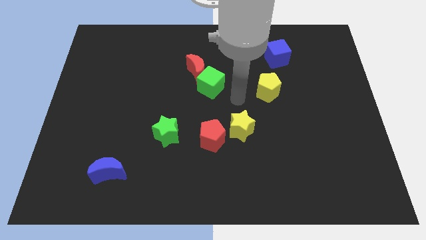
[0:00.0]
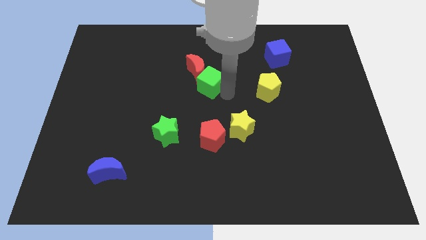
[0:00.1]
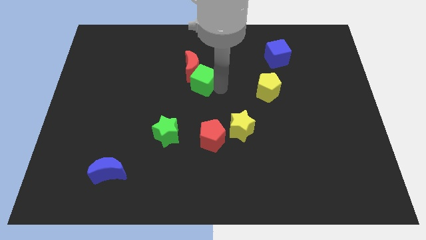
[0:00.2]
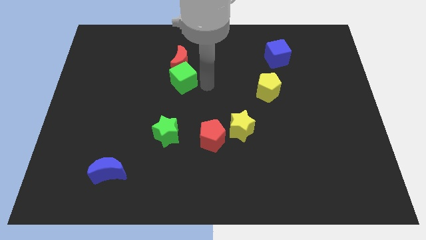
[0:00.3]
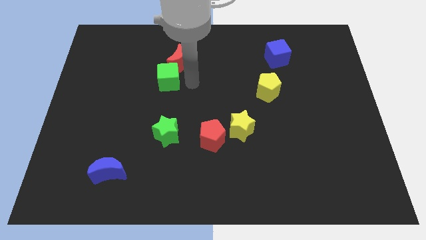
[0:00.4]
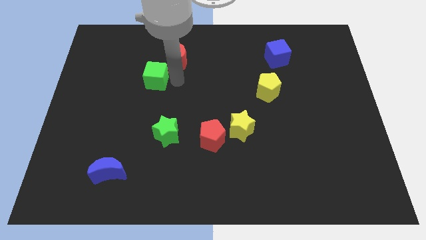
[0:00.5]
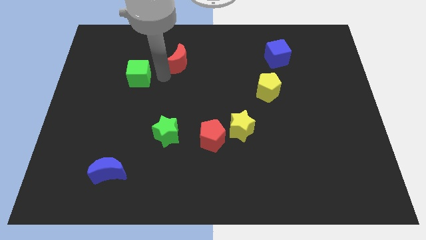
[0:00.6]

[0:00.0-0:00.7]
move the red moon away from the green cube

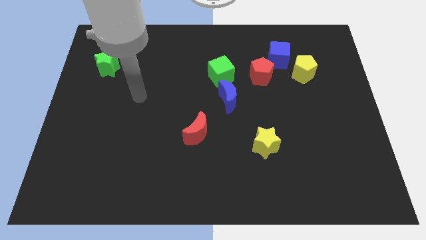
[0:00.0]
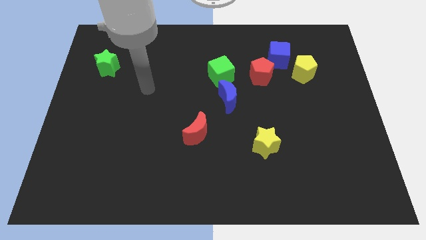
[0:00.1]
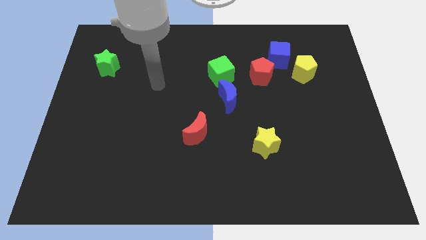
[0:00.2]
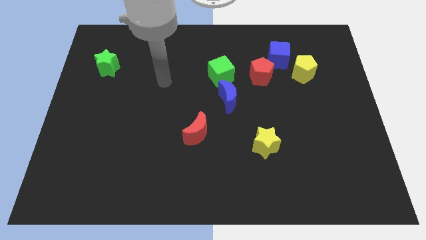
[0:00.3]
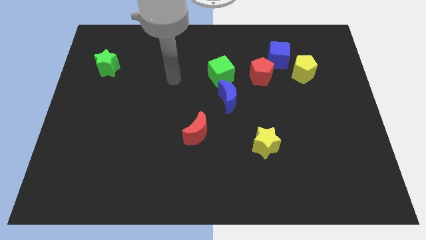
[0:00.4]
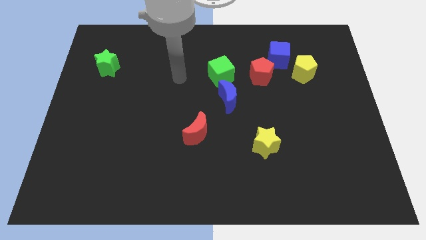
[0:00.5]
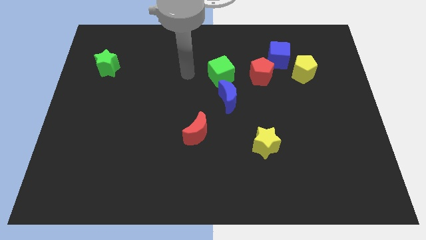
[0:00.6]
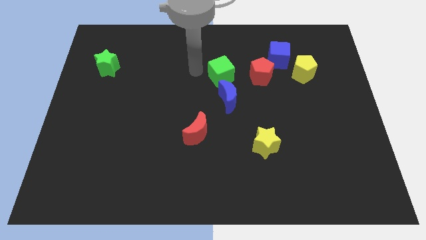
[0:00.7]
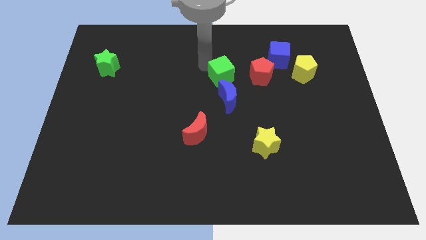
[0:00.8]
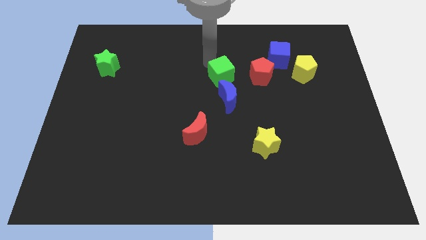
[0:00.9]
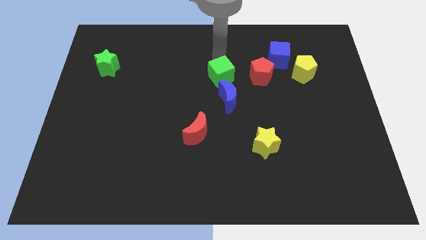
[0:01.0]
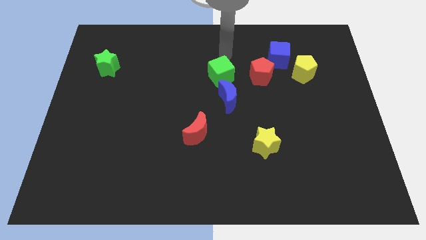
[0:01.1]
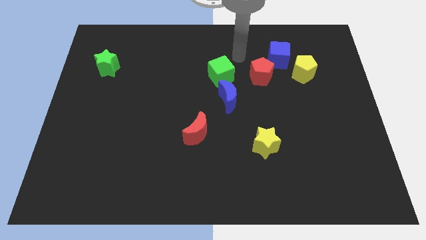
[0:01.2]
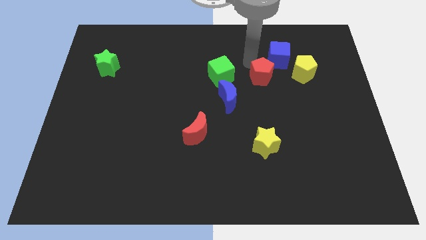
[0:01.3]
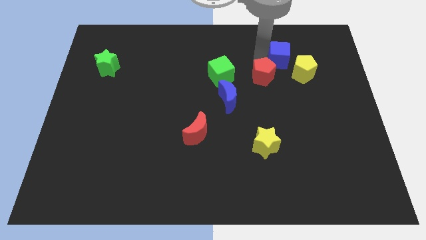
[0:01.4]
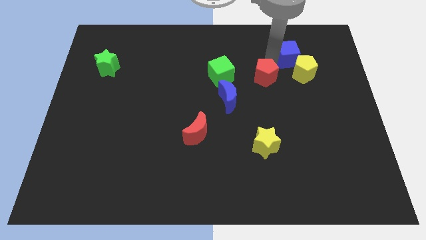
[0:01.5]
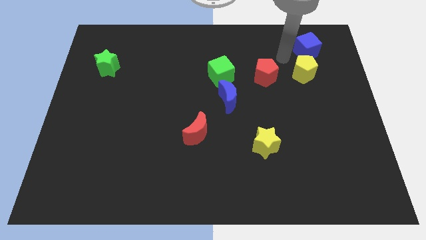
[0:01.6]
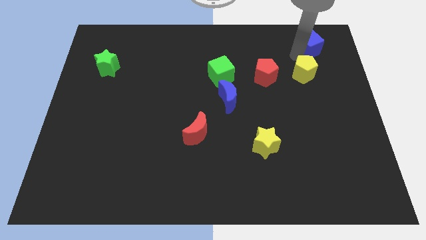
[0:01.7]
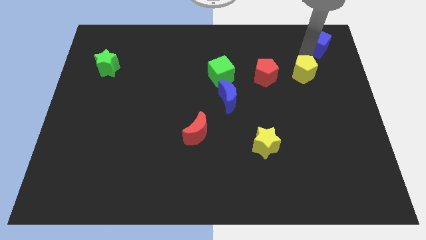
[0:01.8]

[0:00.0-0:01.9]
pull the yellow pentagon apart from the blue cube

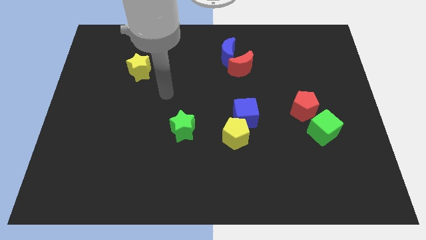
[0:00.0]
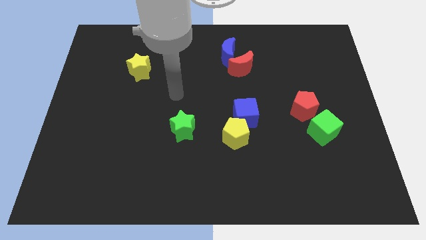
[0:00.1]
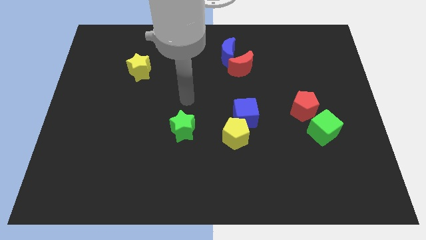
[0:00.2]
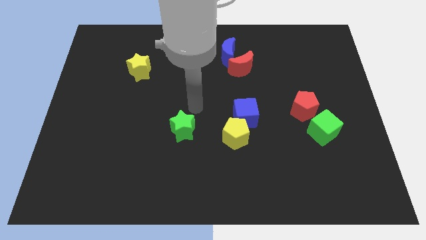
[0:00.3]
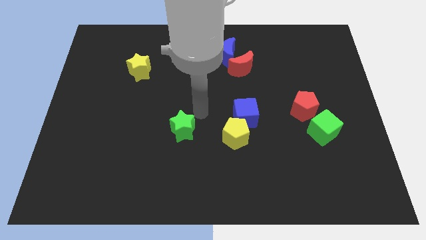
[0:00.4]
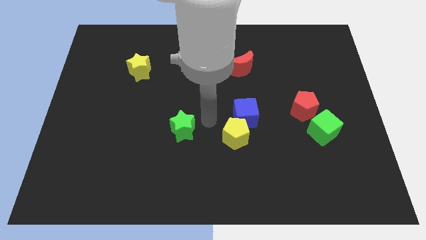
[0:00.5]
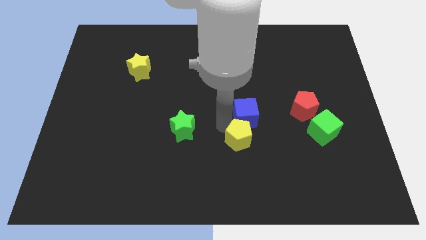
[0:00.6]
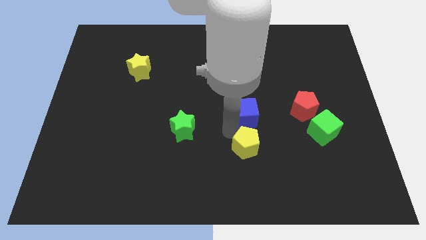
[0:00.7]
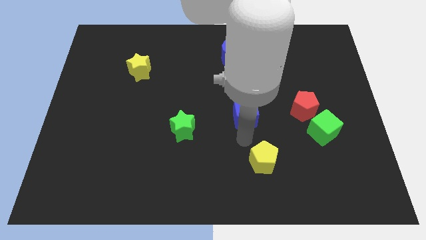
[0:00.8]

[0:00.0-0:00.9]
separate the blue cube from the yellow pentagon

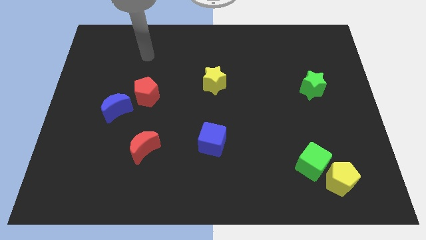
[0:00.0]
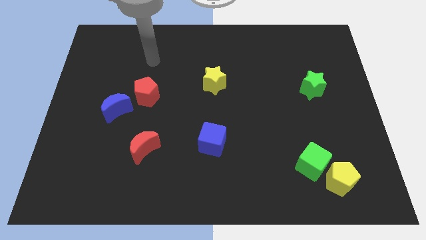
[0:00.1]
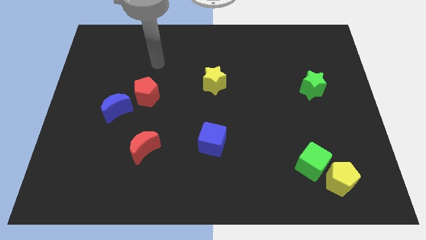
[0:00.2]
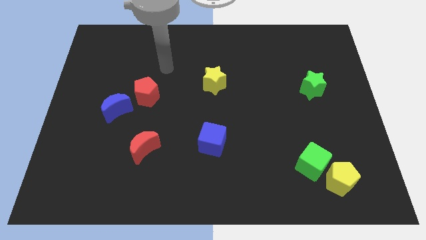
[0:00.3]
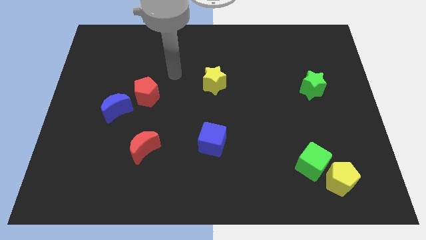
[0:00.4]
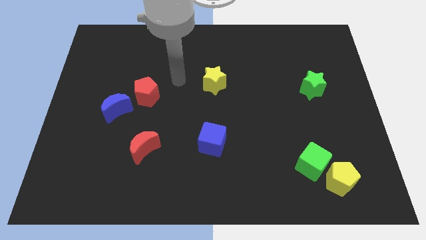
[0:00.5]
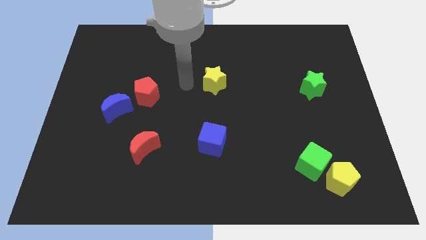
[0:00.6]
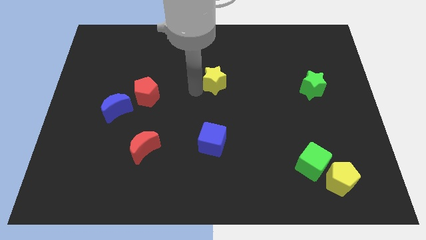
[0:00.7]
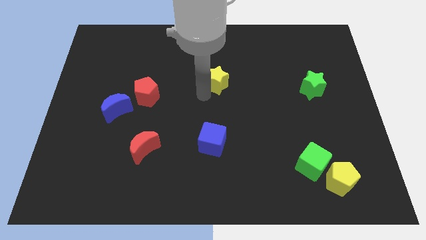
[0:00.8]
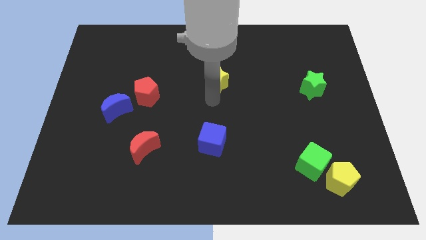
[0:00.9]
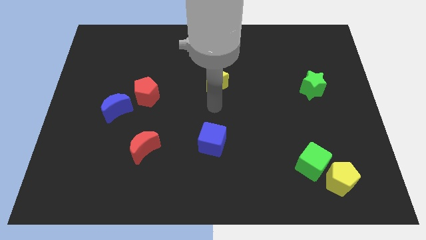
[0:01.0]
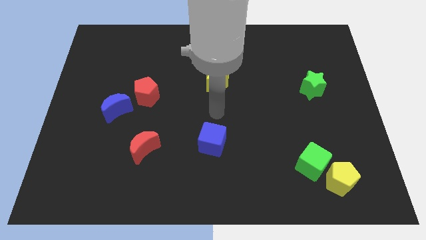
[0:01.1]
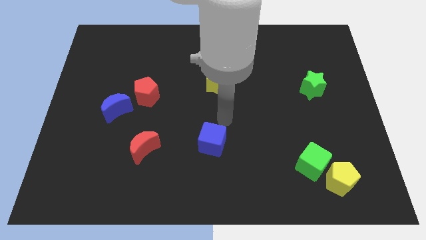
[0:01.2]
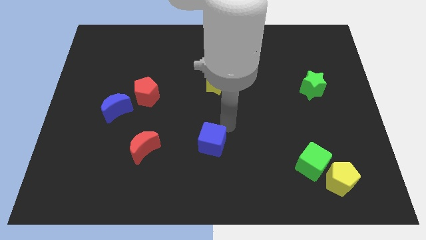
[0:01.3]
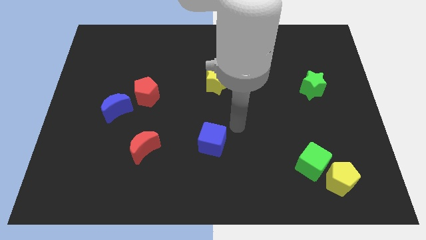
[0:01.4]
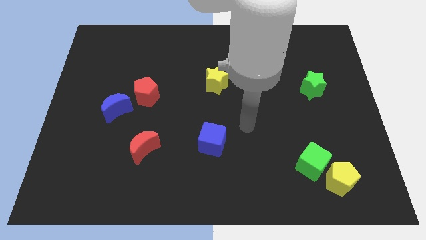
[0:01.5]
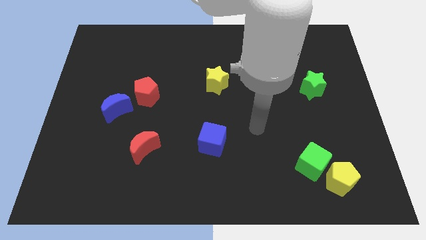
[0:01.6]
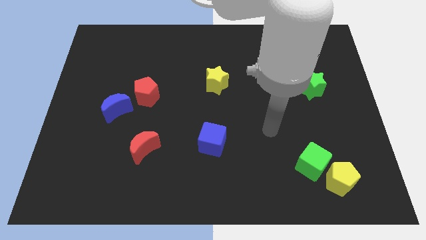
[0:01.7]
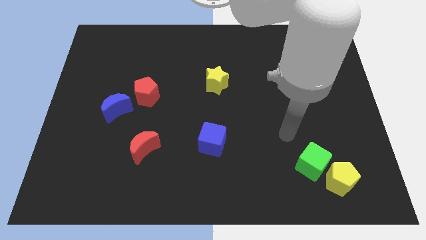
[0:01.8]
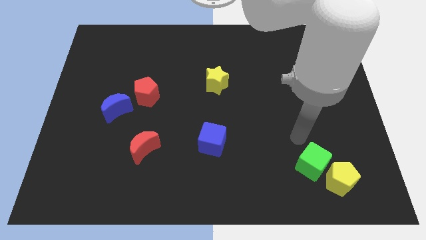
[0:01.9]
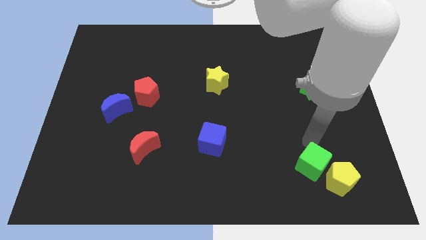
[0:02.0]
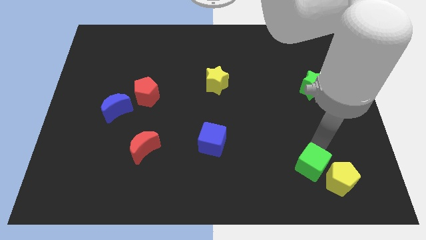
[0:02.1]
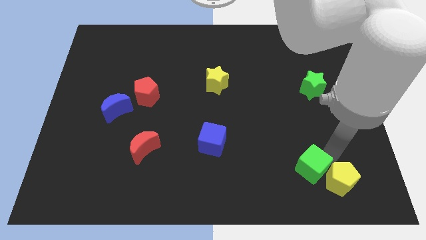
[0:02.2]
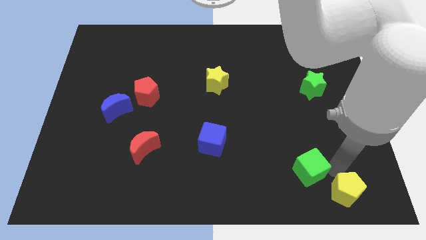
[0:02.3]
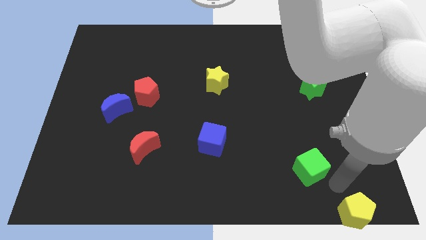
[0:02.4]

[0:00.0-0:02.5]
separate the green cube from the yellow pentagon

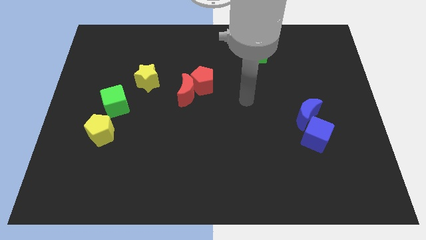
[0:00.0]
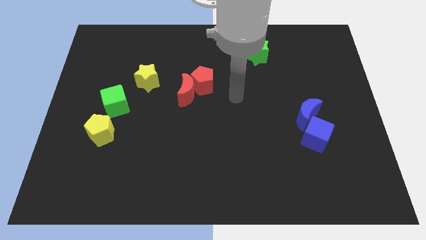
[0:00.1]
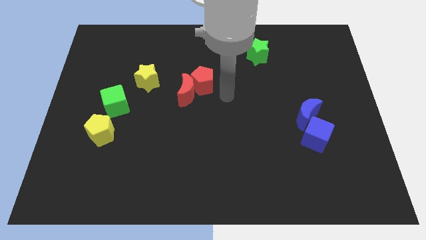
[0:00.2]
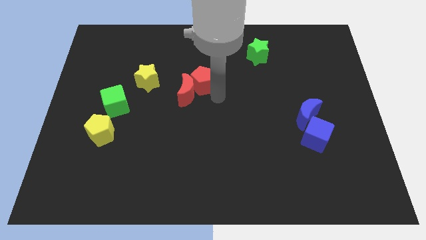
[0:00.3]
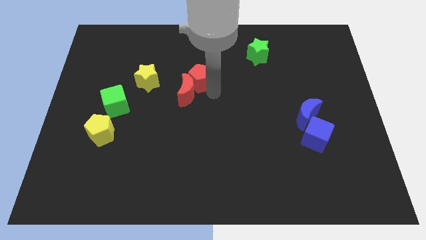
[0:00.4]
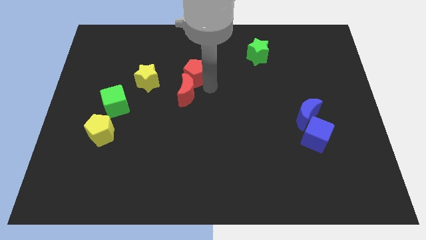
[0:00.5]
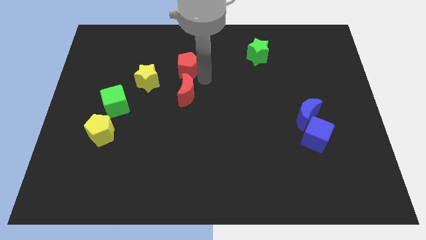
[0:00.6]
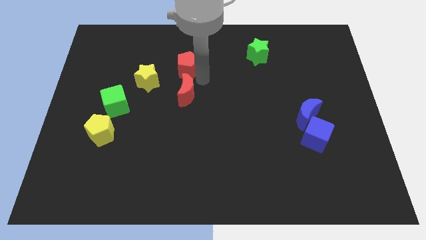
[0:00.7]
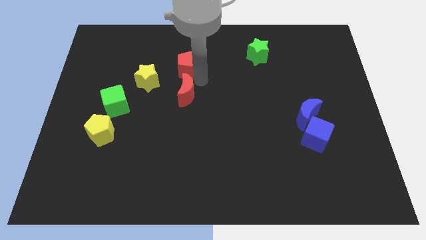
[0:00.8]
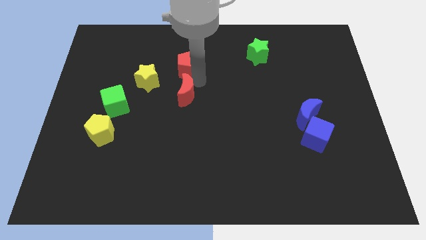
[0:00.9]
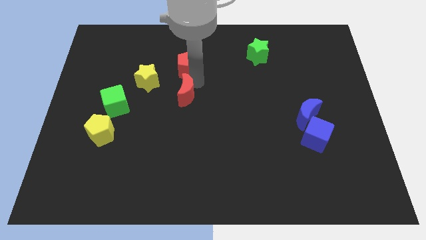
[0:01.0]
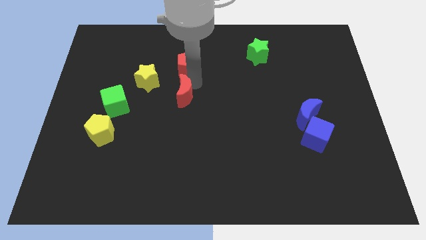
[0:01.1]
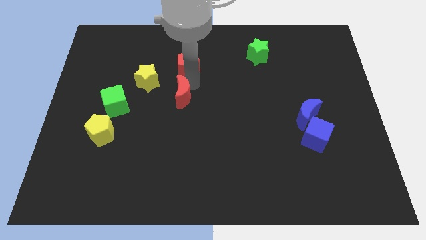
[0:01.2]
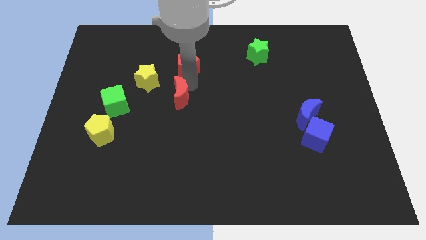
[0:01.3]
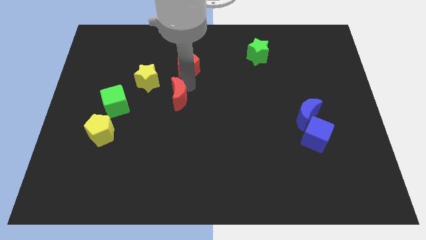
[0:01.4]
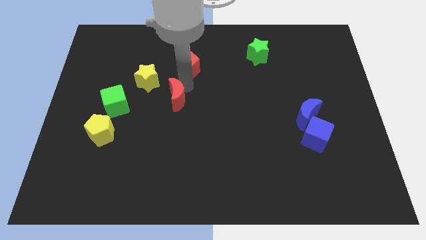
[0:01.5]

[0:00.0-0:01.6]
pull the red moon apart from the red pentagon

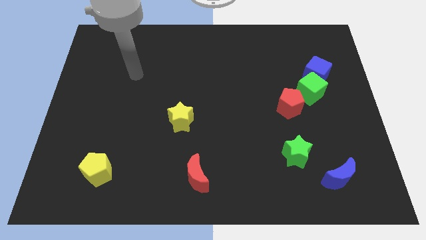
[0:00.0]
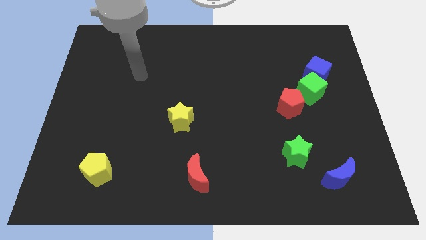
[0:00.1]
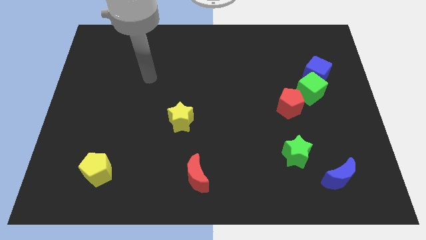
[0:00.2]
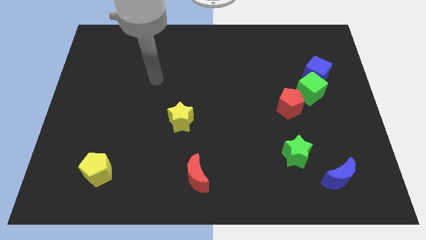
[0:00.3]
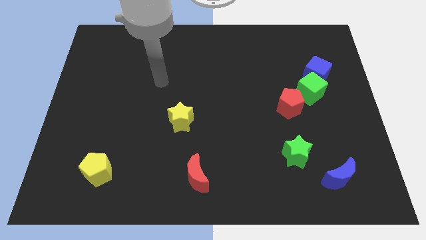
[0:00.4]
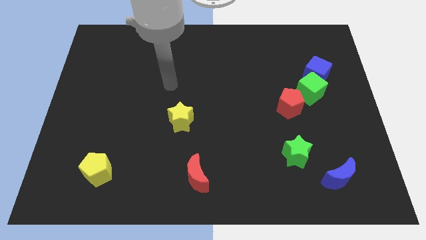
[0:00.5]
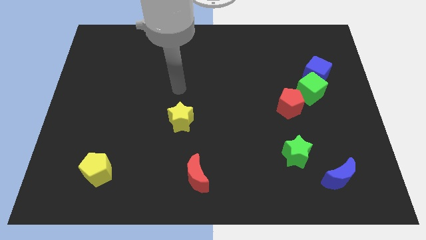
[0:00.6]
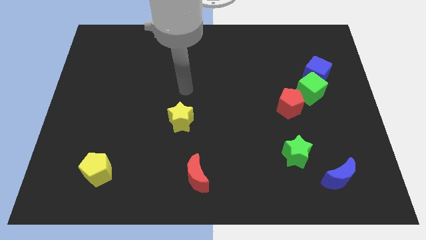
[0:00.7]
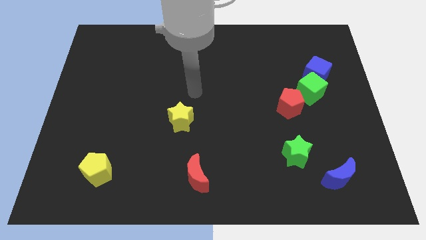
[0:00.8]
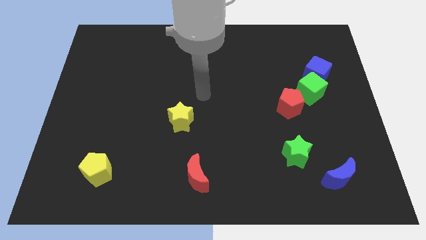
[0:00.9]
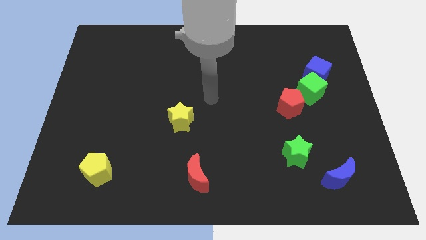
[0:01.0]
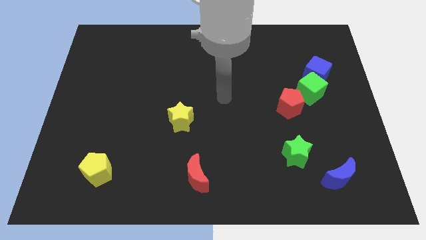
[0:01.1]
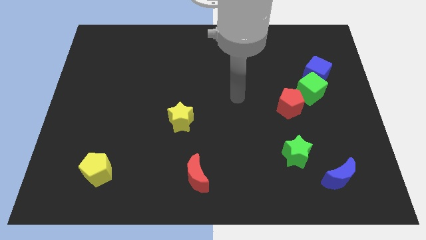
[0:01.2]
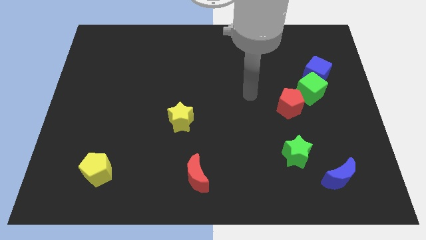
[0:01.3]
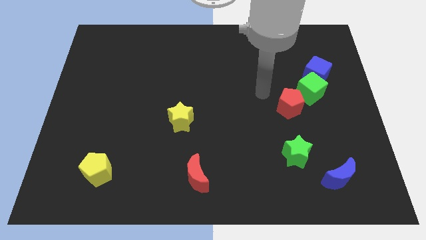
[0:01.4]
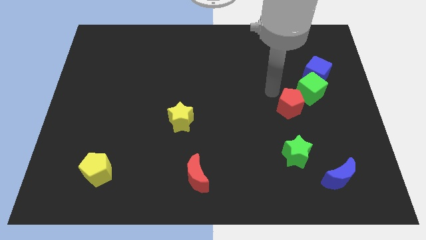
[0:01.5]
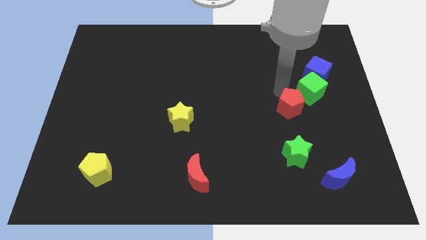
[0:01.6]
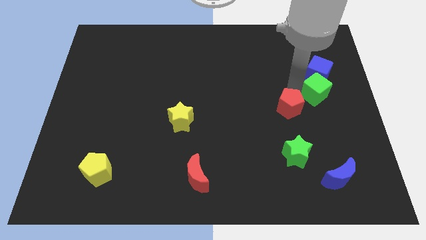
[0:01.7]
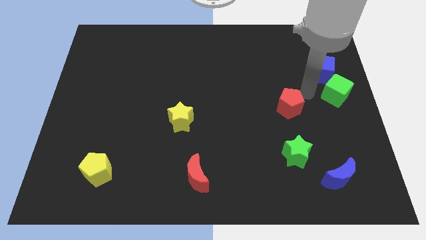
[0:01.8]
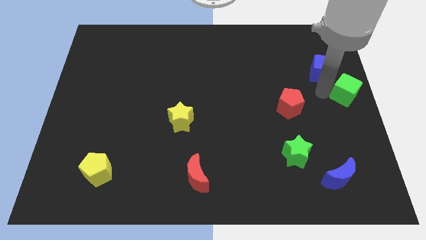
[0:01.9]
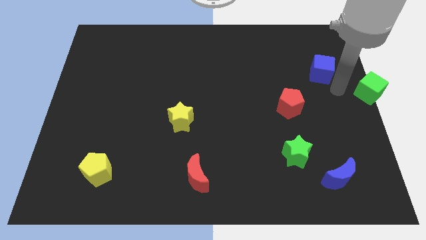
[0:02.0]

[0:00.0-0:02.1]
pull the blue cube apart from the green cube
